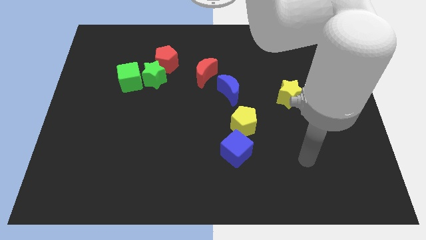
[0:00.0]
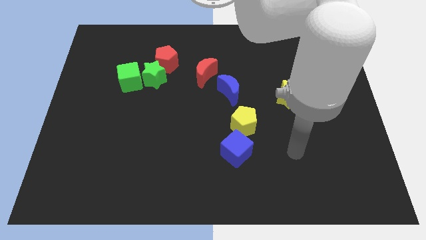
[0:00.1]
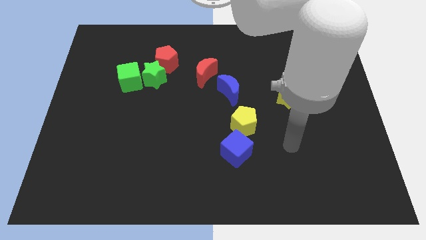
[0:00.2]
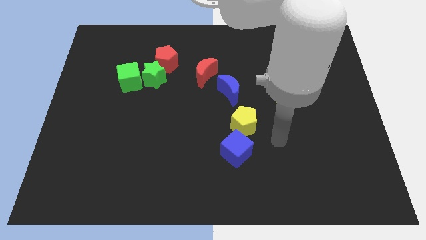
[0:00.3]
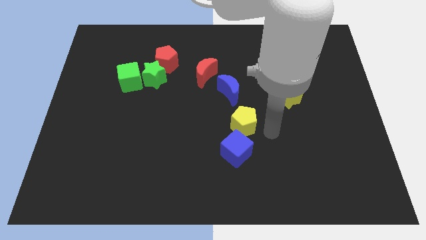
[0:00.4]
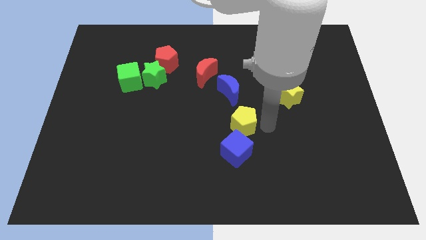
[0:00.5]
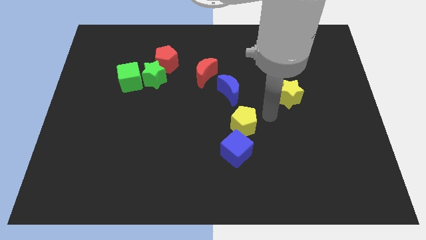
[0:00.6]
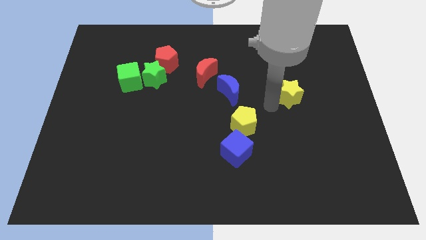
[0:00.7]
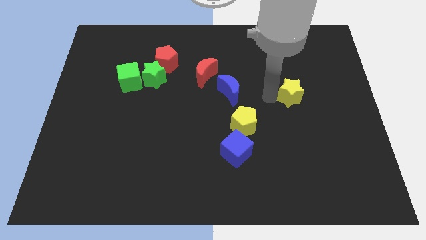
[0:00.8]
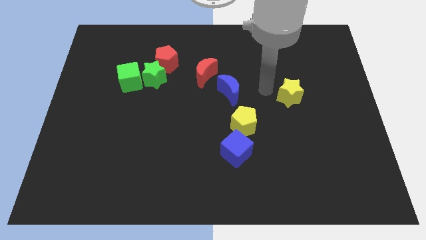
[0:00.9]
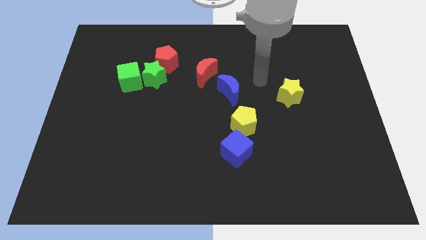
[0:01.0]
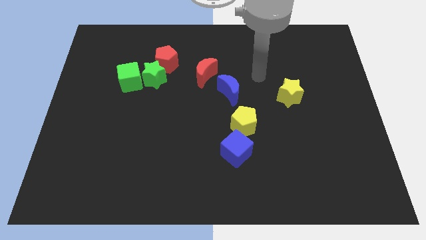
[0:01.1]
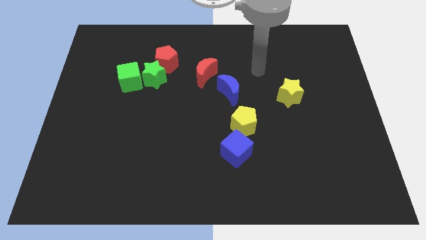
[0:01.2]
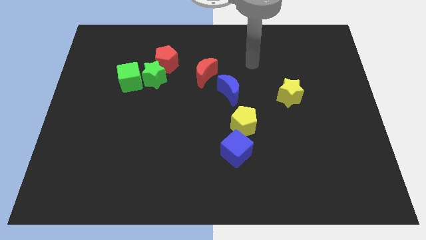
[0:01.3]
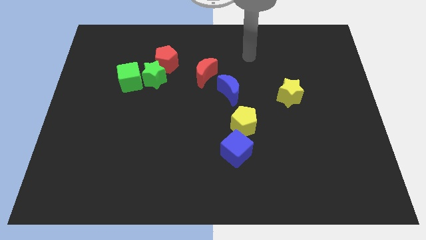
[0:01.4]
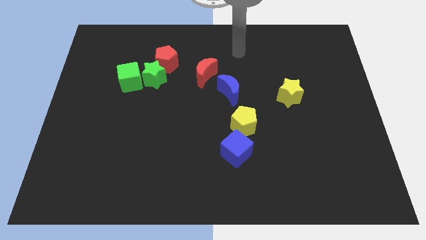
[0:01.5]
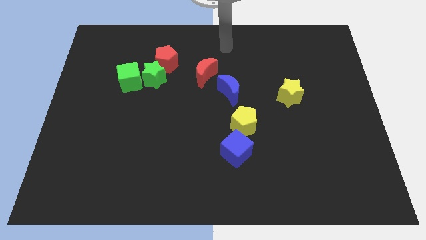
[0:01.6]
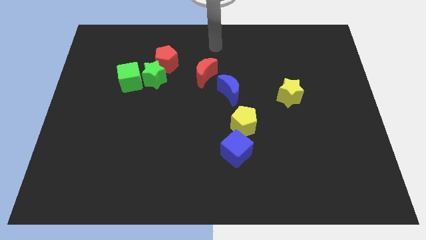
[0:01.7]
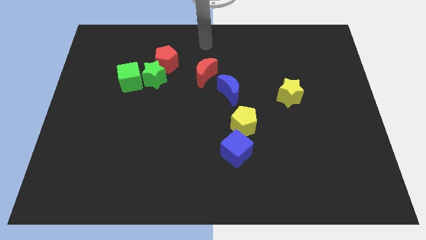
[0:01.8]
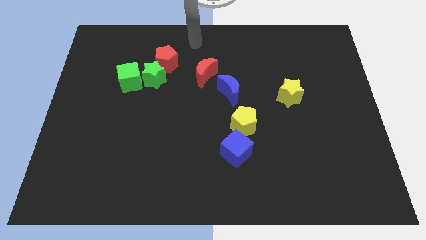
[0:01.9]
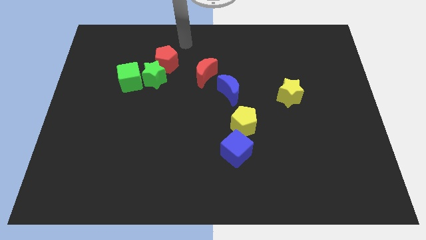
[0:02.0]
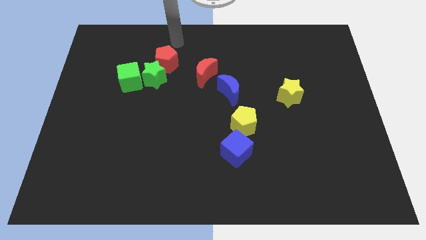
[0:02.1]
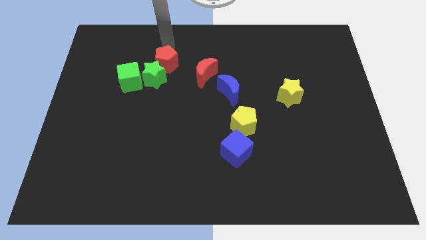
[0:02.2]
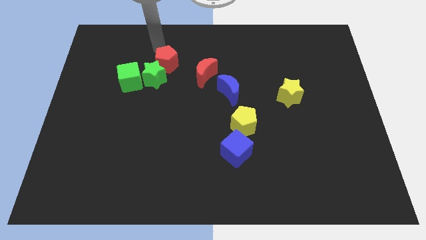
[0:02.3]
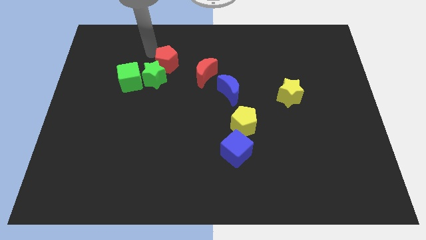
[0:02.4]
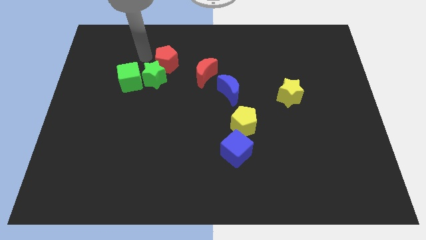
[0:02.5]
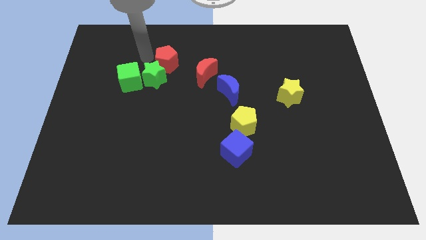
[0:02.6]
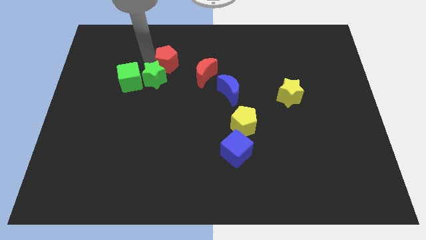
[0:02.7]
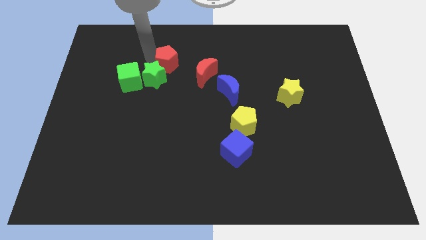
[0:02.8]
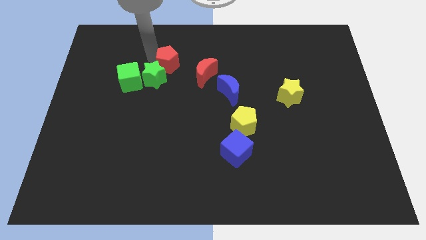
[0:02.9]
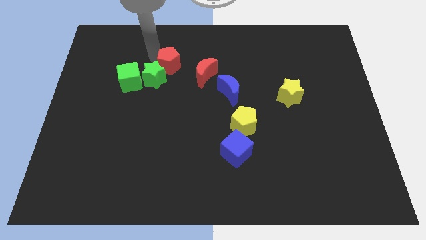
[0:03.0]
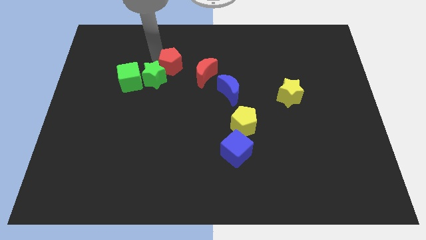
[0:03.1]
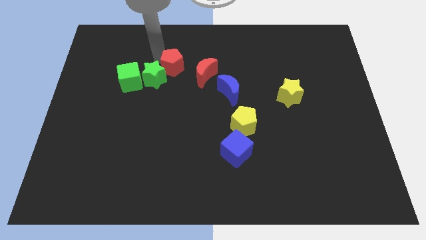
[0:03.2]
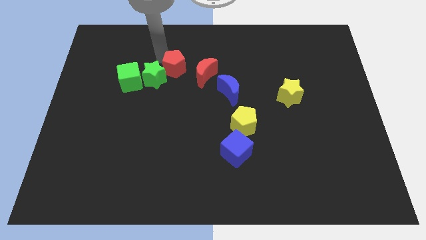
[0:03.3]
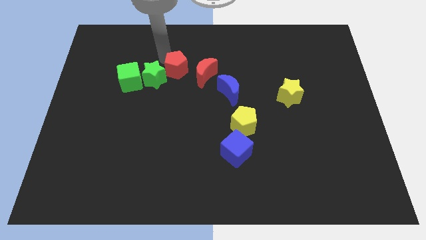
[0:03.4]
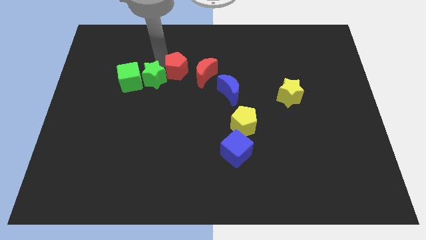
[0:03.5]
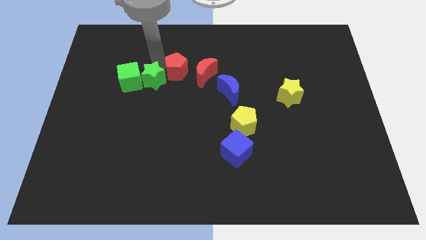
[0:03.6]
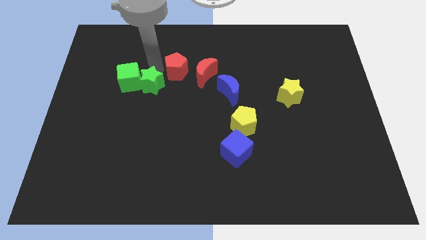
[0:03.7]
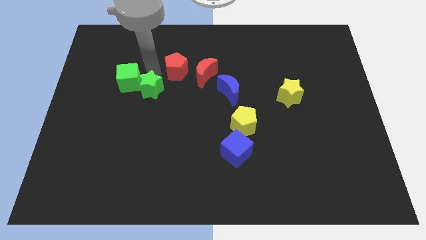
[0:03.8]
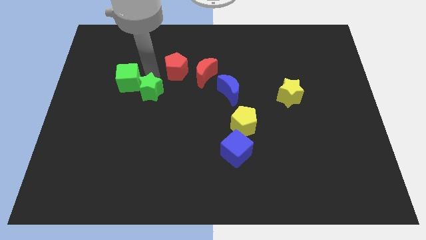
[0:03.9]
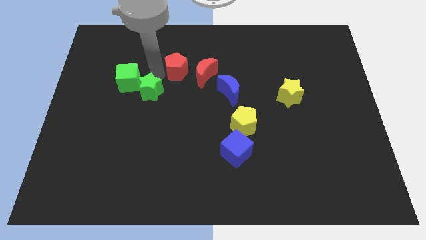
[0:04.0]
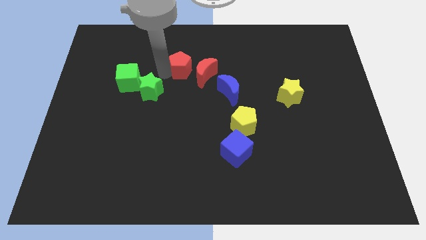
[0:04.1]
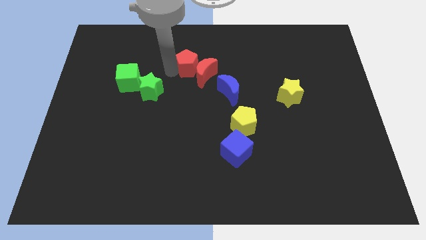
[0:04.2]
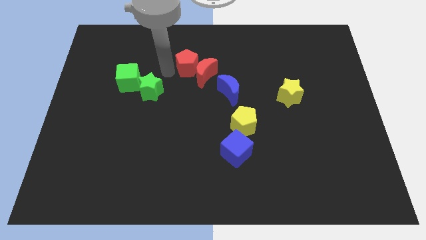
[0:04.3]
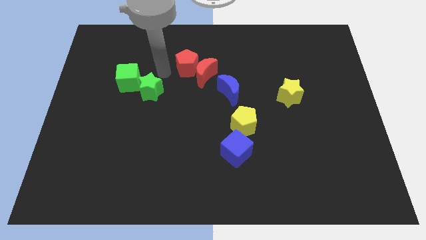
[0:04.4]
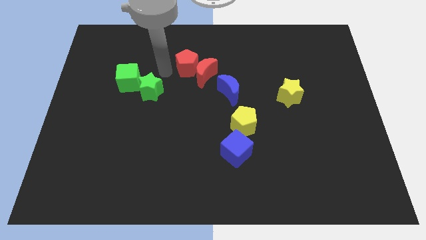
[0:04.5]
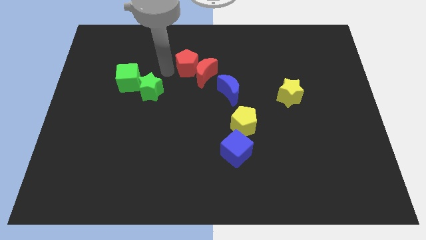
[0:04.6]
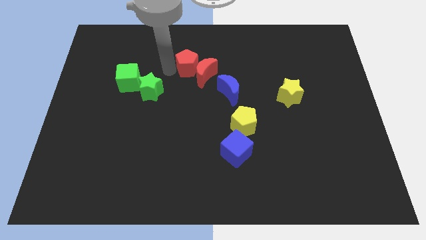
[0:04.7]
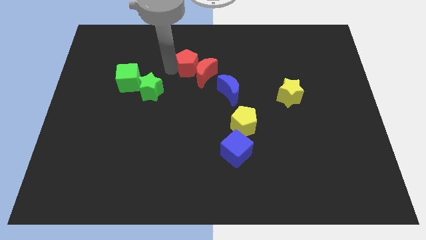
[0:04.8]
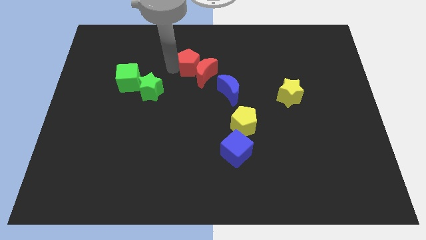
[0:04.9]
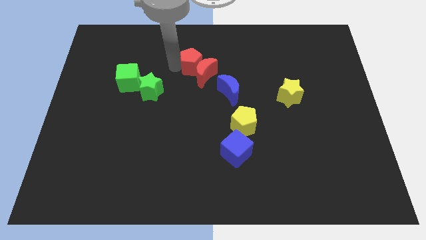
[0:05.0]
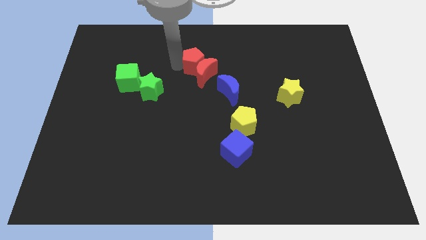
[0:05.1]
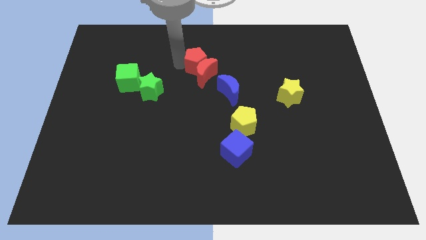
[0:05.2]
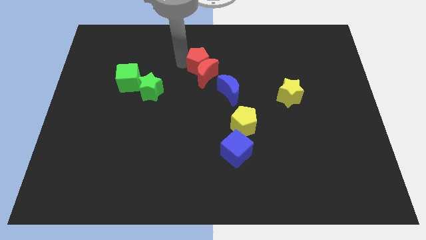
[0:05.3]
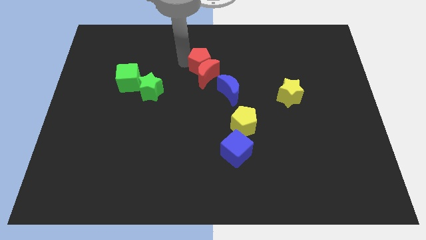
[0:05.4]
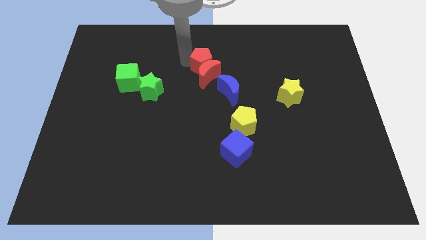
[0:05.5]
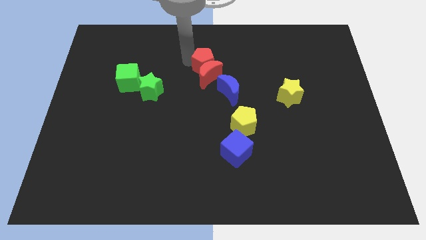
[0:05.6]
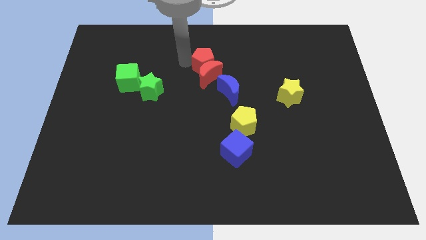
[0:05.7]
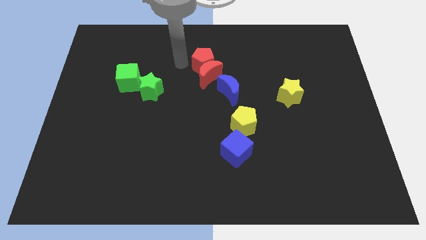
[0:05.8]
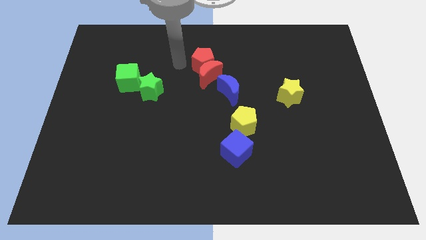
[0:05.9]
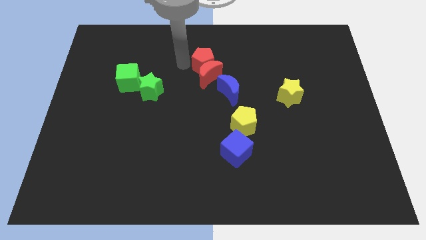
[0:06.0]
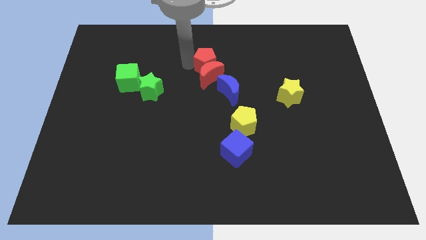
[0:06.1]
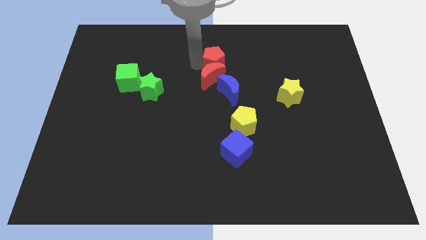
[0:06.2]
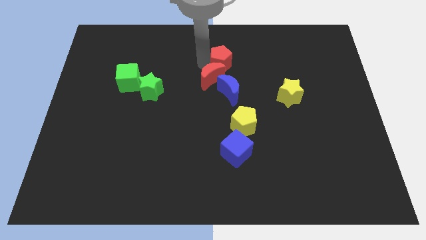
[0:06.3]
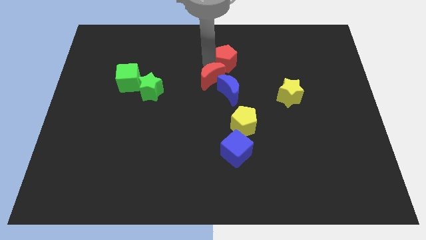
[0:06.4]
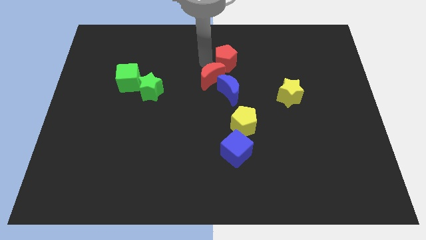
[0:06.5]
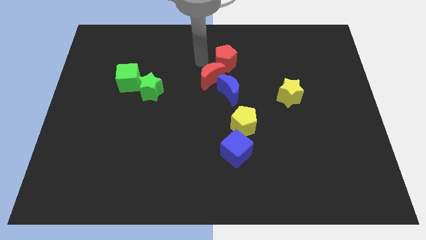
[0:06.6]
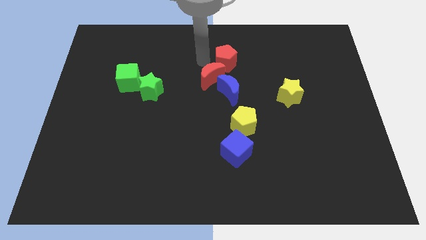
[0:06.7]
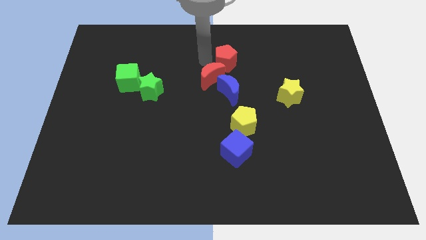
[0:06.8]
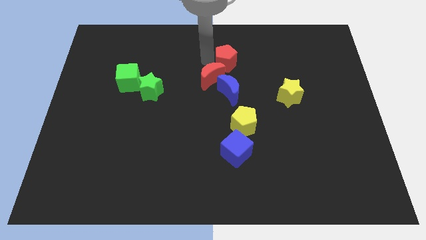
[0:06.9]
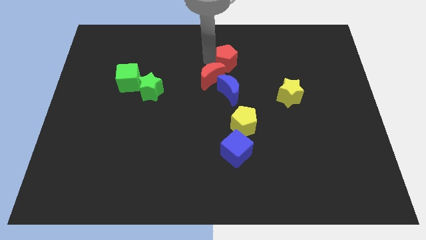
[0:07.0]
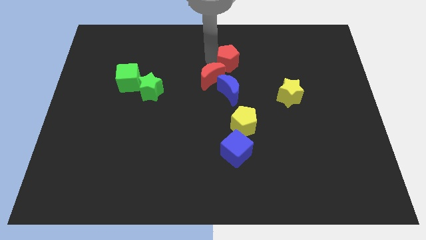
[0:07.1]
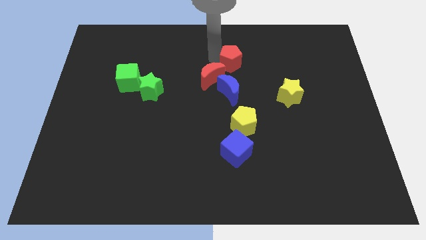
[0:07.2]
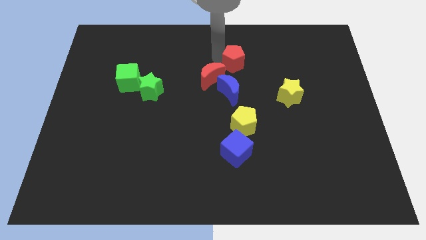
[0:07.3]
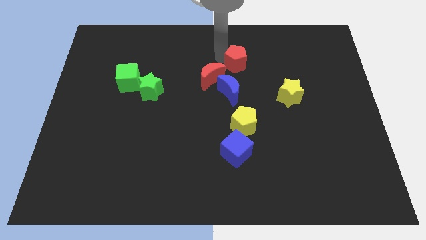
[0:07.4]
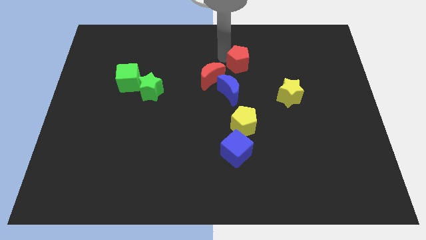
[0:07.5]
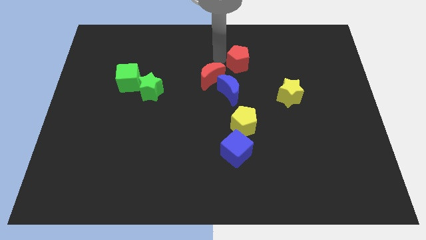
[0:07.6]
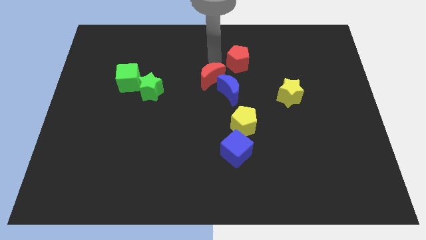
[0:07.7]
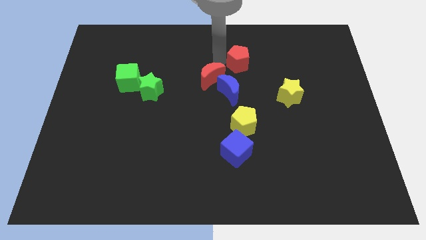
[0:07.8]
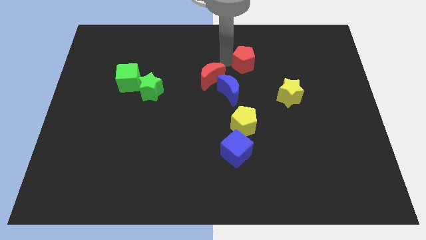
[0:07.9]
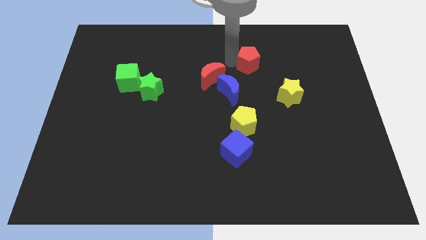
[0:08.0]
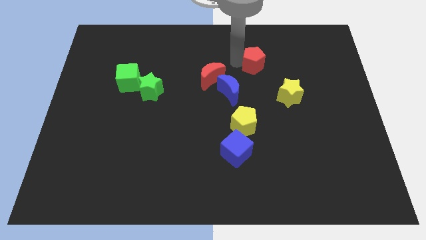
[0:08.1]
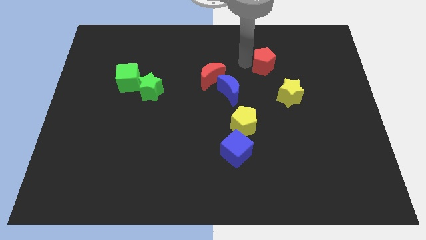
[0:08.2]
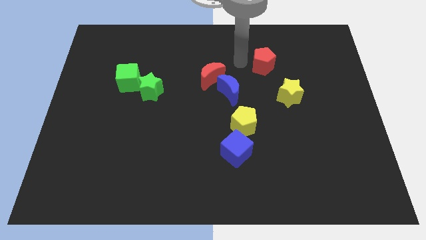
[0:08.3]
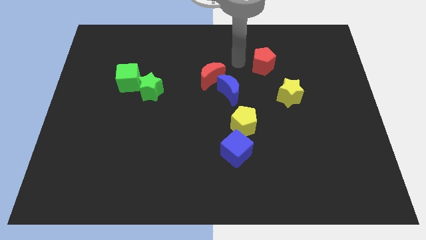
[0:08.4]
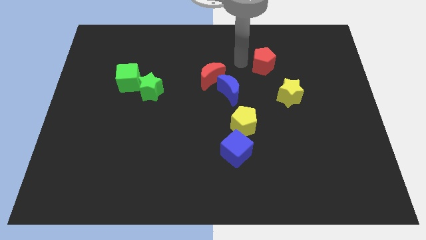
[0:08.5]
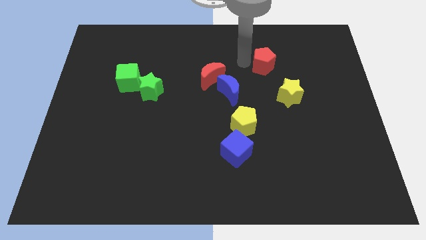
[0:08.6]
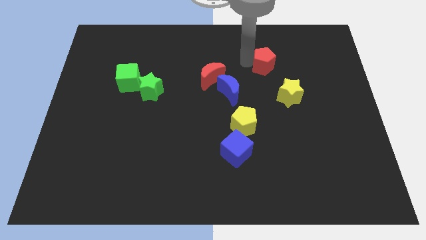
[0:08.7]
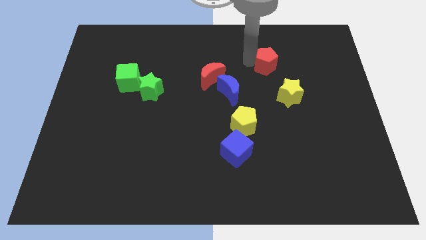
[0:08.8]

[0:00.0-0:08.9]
move the red pentagon to the top side of the yellow star
